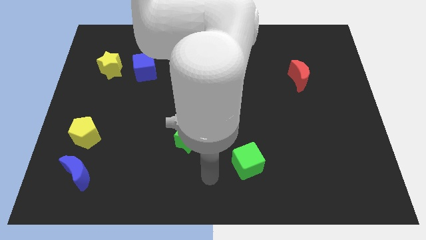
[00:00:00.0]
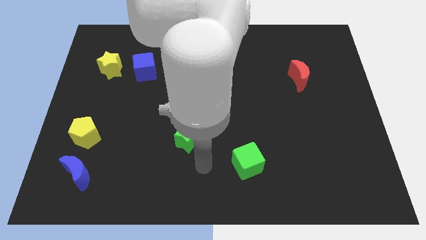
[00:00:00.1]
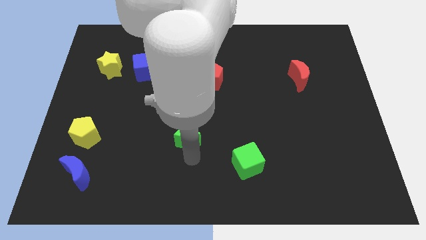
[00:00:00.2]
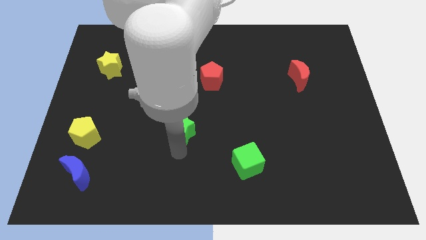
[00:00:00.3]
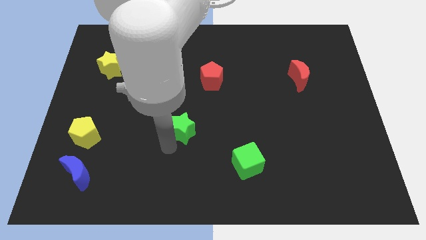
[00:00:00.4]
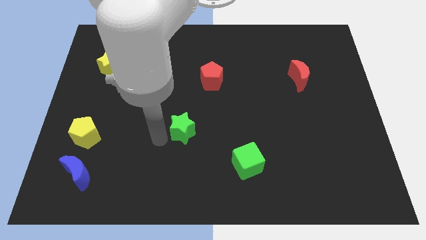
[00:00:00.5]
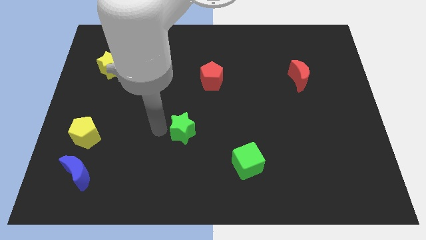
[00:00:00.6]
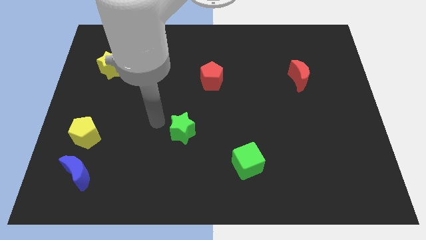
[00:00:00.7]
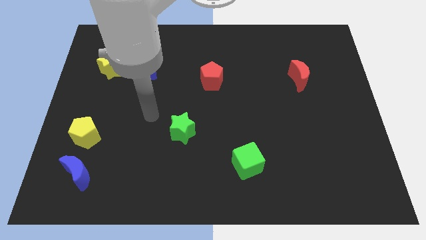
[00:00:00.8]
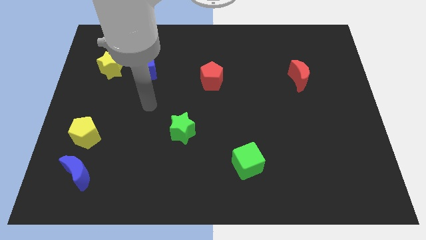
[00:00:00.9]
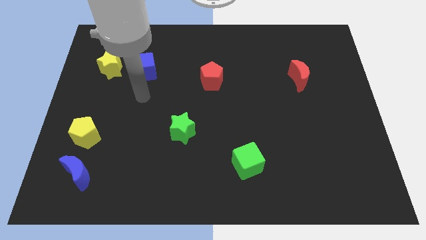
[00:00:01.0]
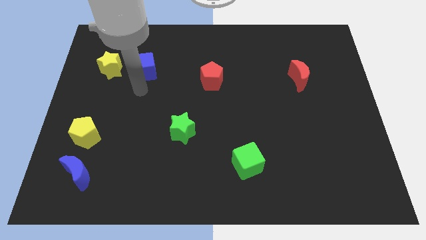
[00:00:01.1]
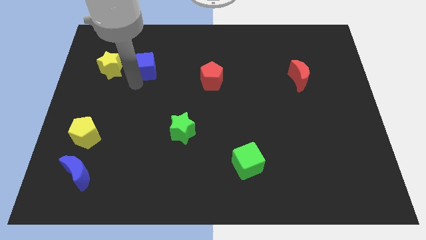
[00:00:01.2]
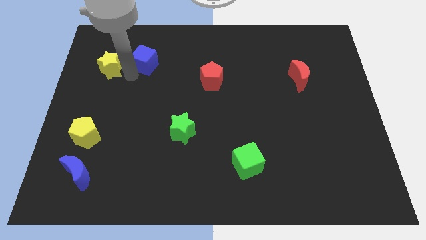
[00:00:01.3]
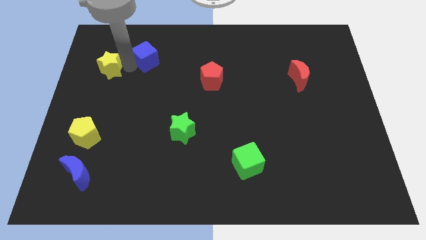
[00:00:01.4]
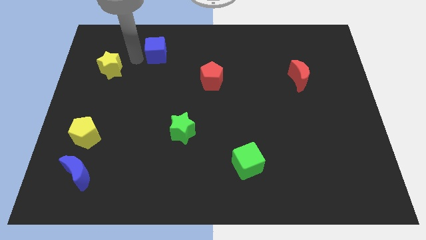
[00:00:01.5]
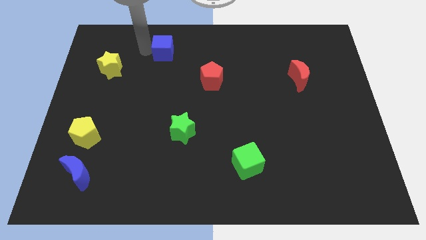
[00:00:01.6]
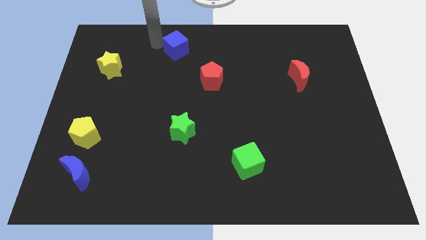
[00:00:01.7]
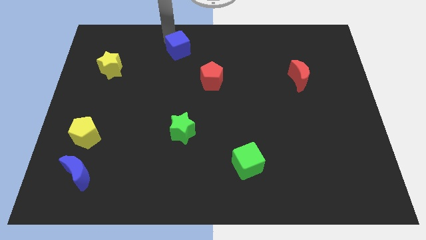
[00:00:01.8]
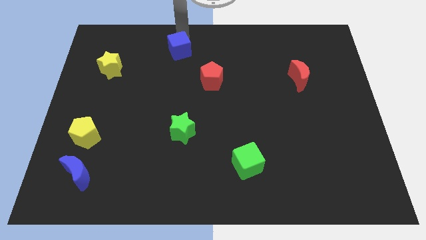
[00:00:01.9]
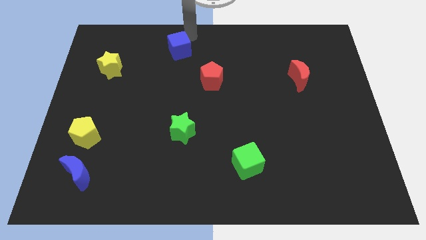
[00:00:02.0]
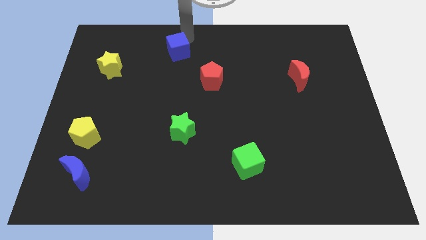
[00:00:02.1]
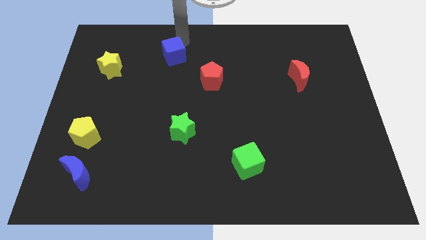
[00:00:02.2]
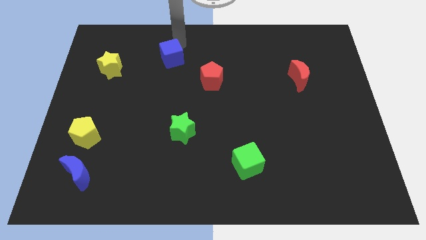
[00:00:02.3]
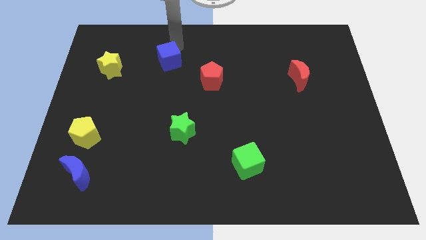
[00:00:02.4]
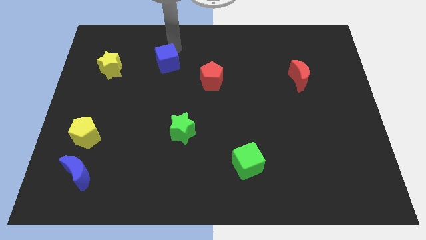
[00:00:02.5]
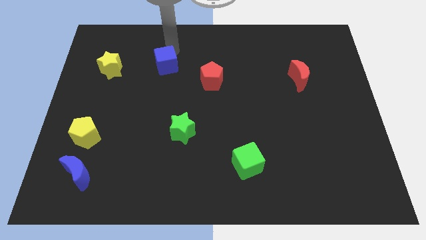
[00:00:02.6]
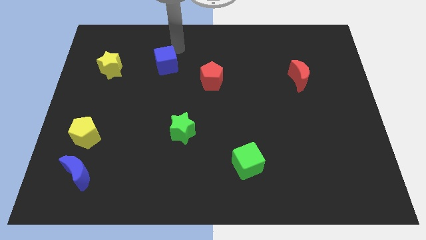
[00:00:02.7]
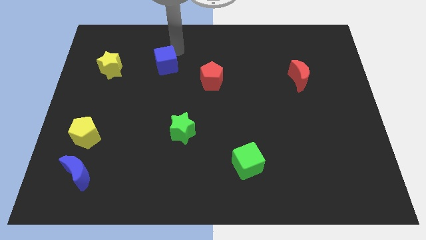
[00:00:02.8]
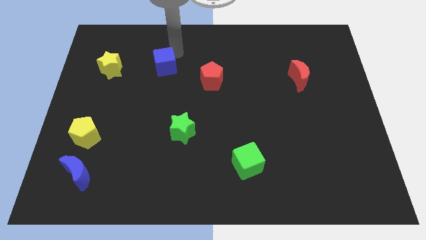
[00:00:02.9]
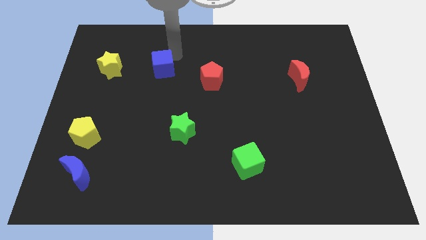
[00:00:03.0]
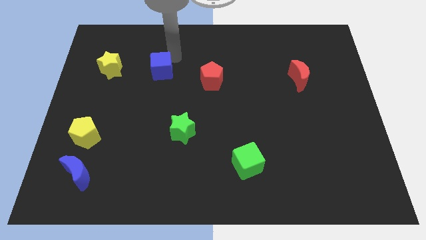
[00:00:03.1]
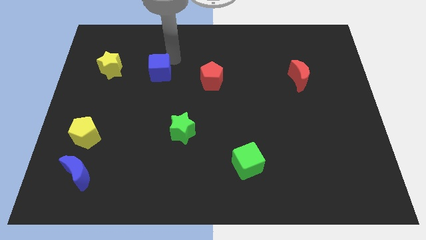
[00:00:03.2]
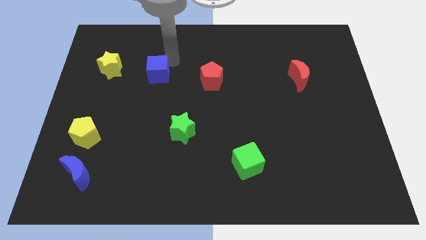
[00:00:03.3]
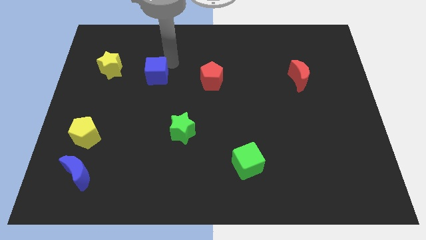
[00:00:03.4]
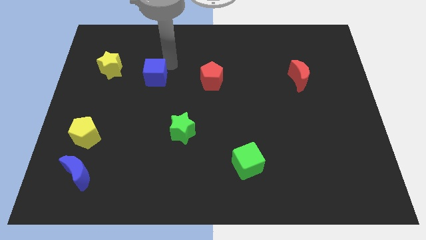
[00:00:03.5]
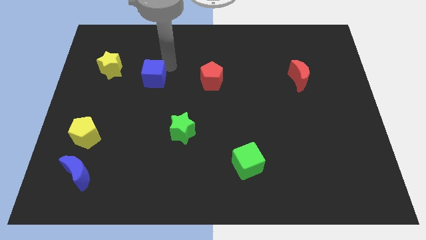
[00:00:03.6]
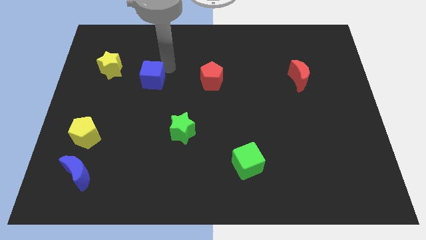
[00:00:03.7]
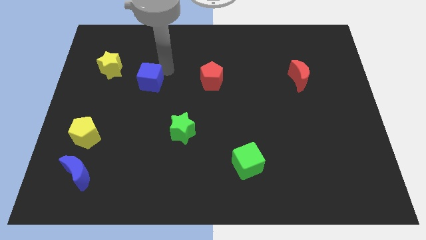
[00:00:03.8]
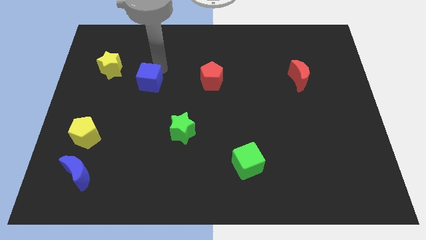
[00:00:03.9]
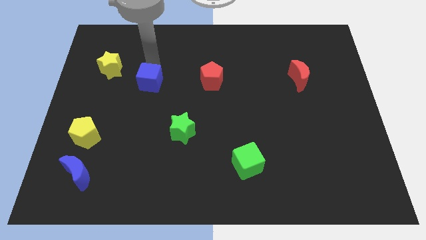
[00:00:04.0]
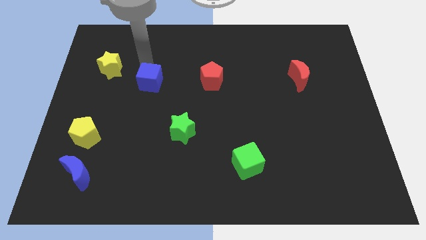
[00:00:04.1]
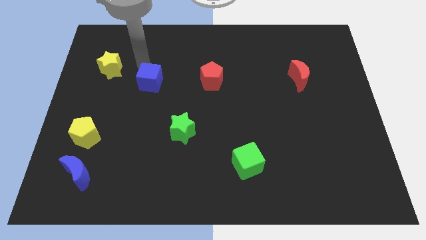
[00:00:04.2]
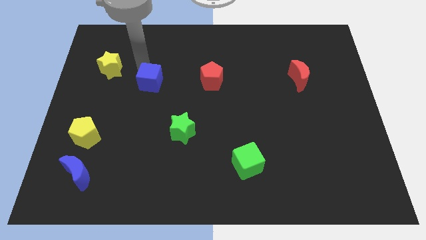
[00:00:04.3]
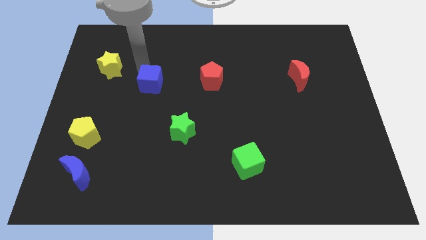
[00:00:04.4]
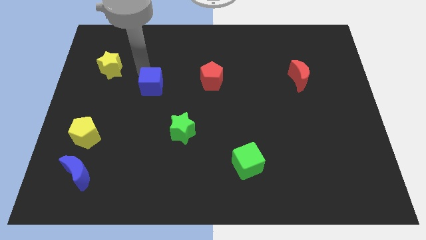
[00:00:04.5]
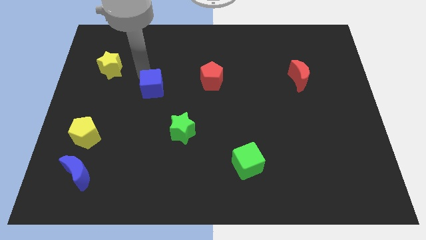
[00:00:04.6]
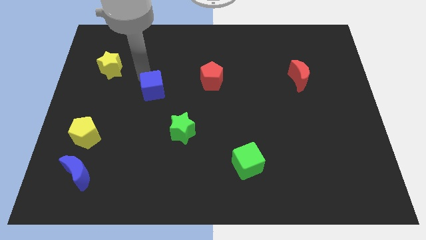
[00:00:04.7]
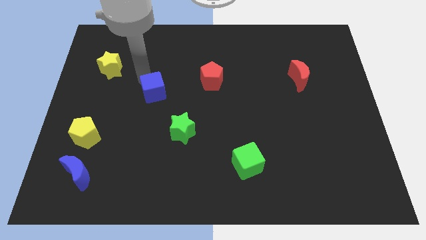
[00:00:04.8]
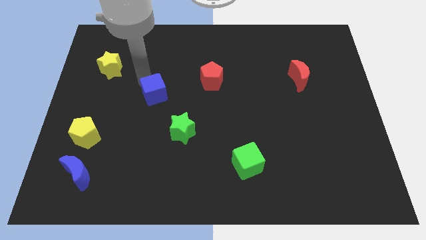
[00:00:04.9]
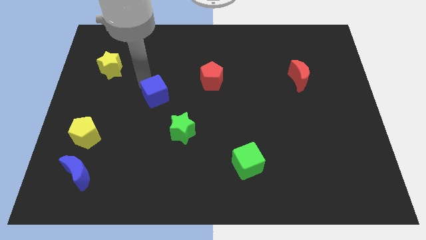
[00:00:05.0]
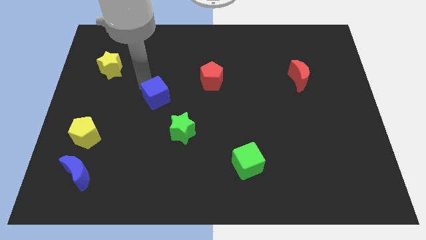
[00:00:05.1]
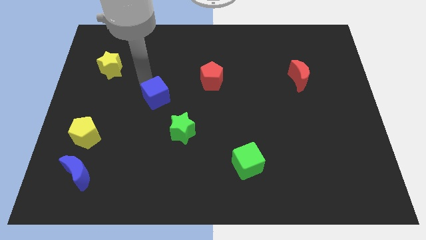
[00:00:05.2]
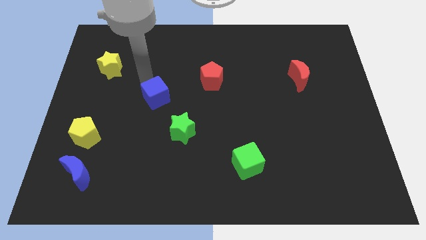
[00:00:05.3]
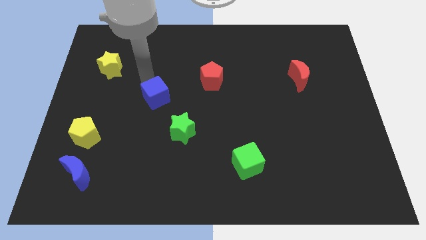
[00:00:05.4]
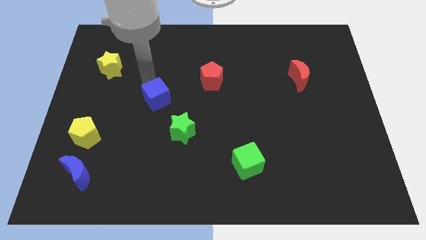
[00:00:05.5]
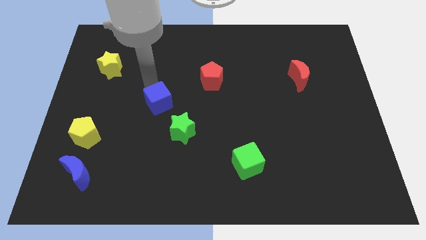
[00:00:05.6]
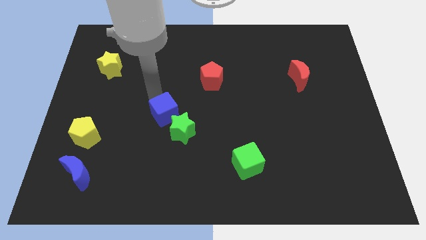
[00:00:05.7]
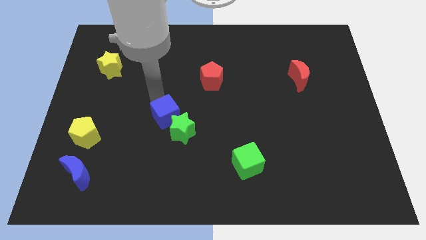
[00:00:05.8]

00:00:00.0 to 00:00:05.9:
move the blue cube next to the green star

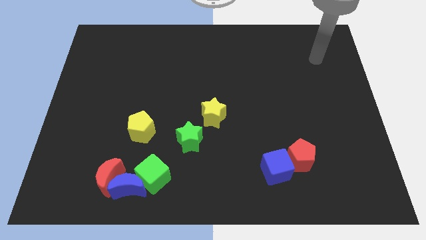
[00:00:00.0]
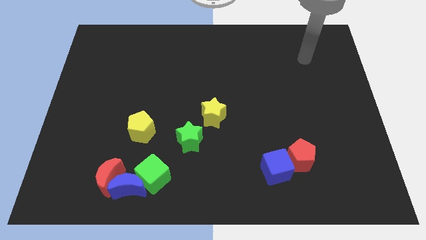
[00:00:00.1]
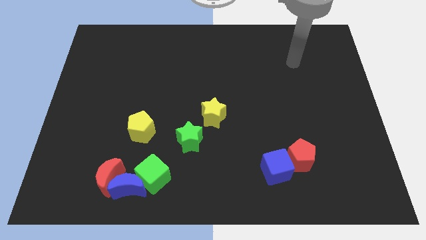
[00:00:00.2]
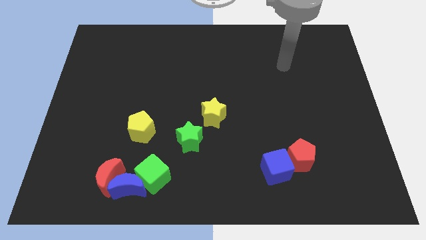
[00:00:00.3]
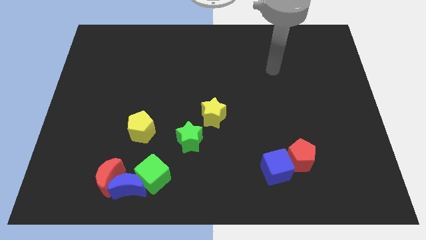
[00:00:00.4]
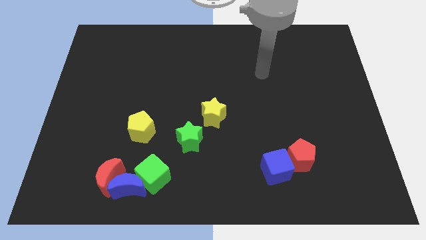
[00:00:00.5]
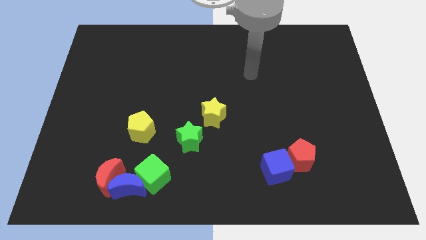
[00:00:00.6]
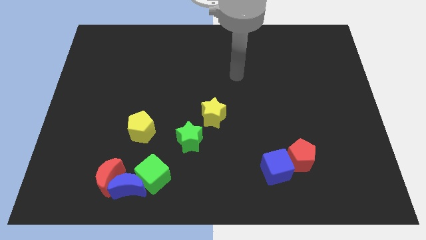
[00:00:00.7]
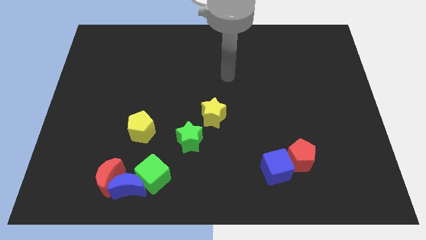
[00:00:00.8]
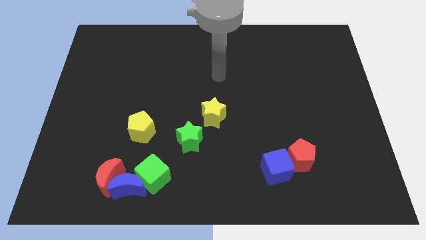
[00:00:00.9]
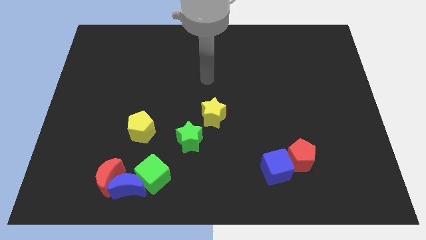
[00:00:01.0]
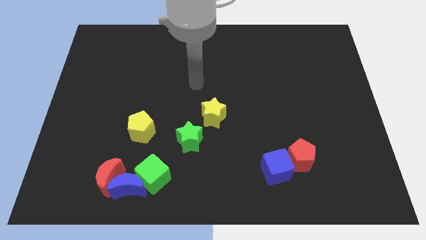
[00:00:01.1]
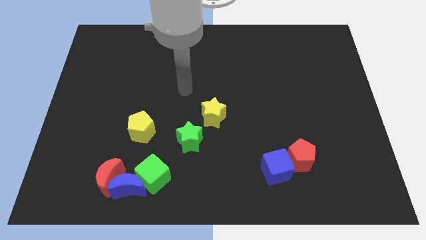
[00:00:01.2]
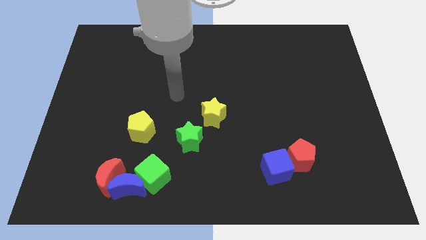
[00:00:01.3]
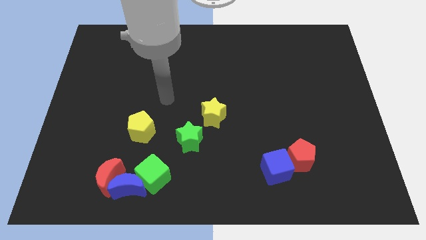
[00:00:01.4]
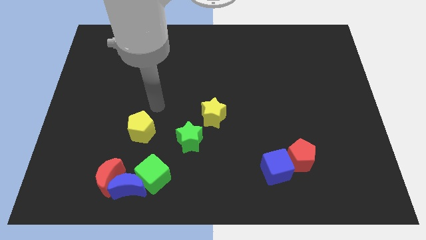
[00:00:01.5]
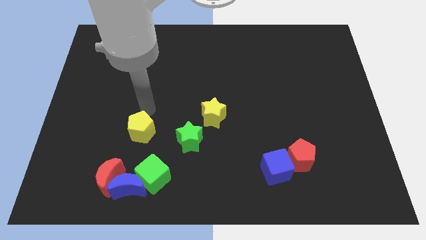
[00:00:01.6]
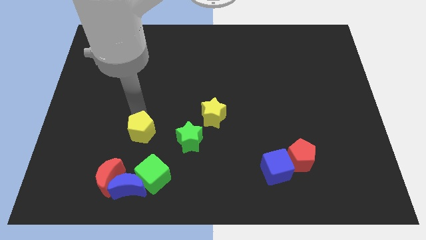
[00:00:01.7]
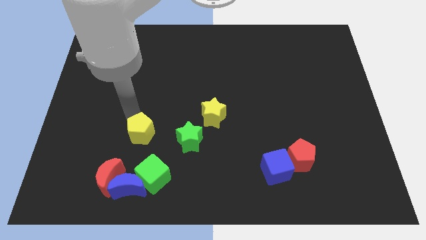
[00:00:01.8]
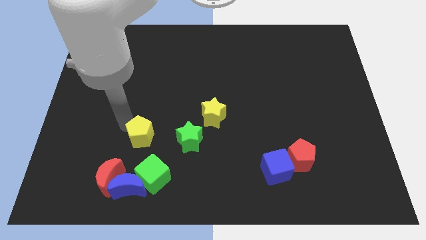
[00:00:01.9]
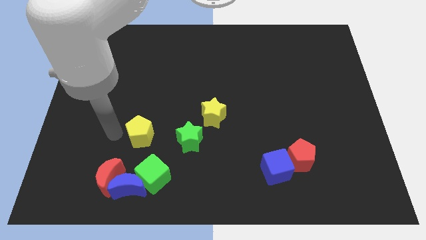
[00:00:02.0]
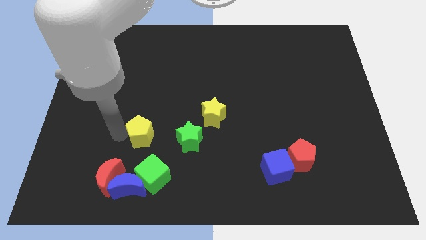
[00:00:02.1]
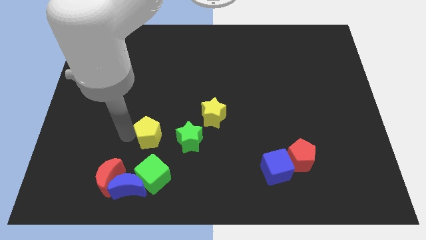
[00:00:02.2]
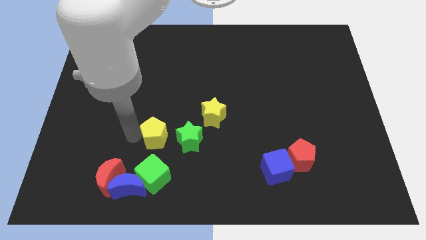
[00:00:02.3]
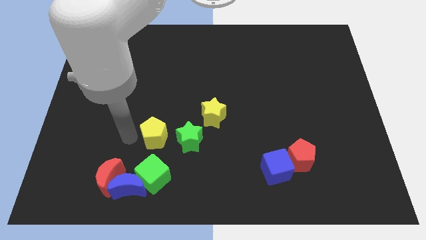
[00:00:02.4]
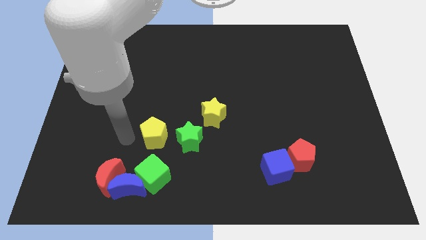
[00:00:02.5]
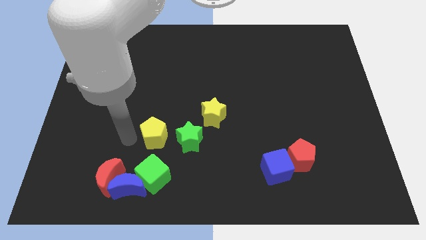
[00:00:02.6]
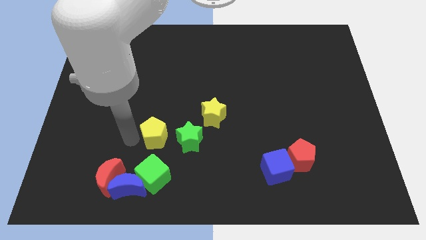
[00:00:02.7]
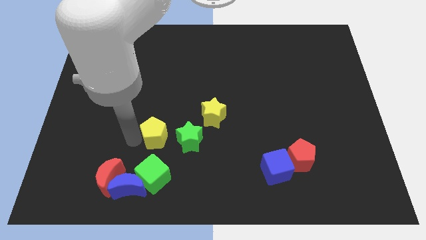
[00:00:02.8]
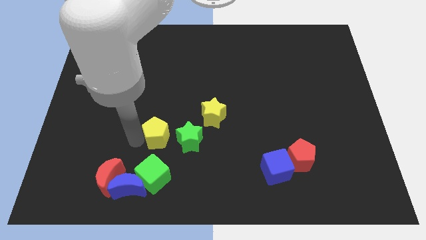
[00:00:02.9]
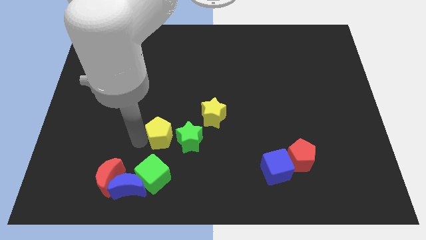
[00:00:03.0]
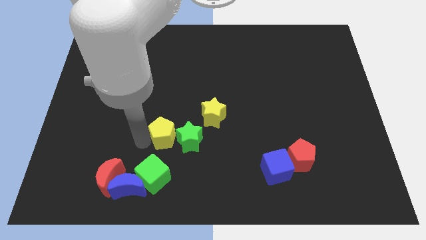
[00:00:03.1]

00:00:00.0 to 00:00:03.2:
slide the yellow pentagon close to the green star
